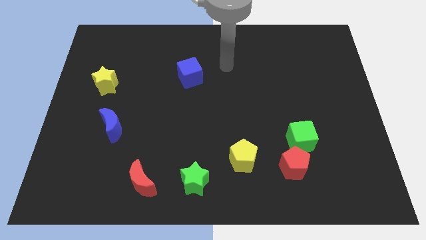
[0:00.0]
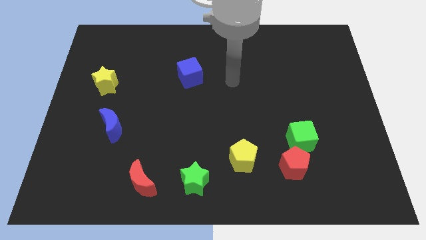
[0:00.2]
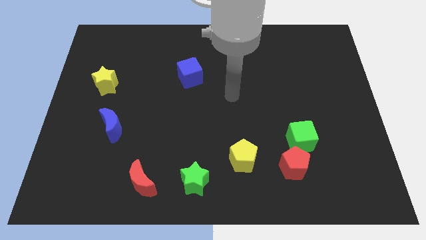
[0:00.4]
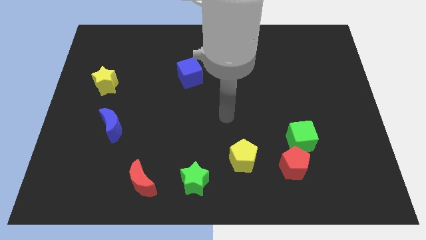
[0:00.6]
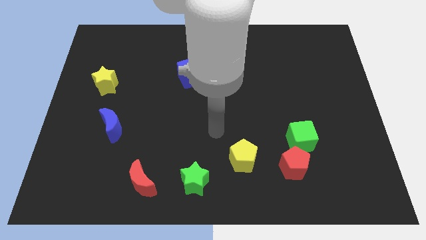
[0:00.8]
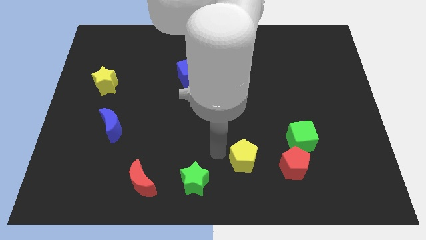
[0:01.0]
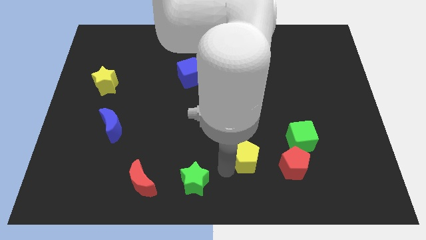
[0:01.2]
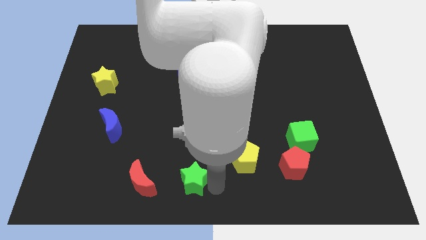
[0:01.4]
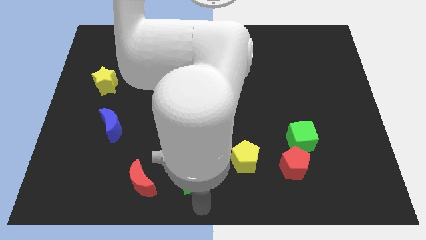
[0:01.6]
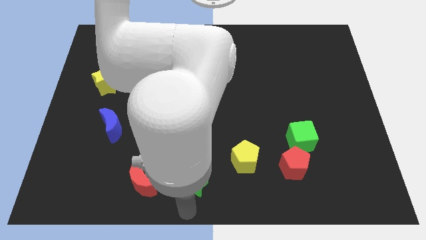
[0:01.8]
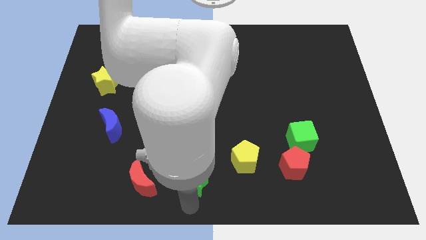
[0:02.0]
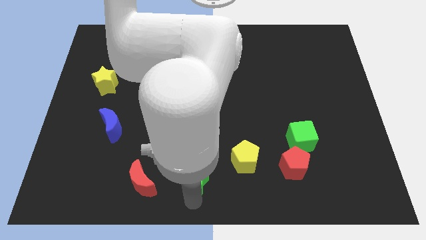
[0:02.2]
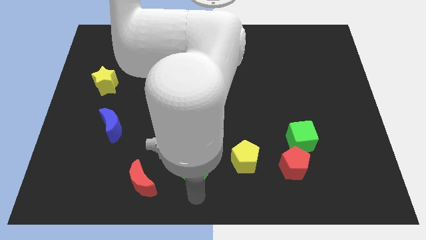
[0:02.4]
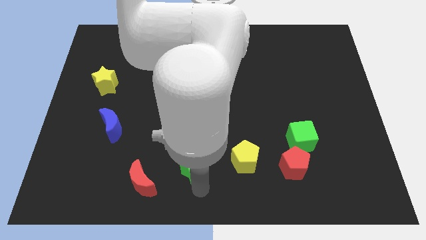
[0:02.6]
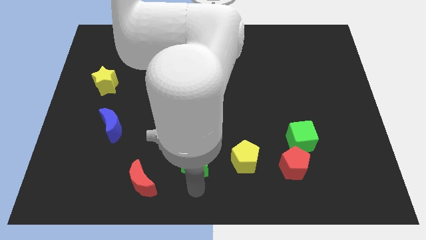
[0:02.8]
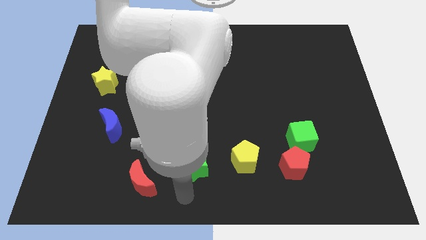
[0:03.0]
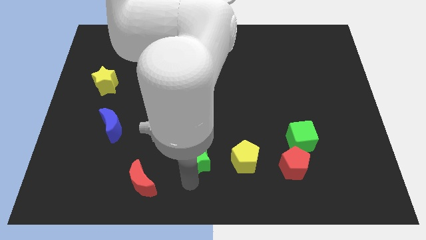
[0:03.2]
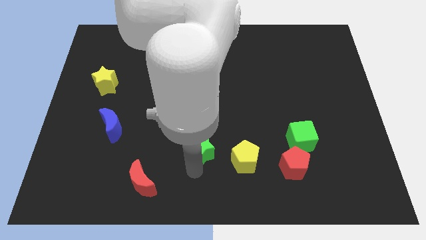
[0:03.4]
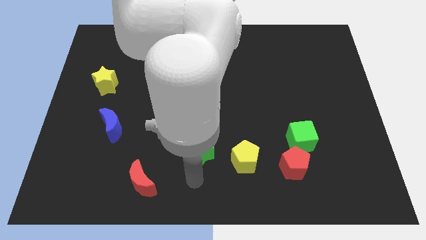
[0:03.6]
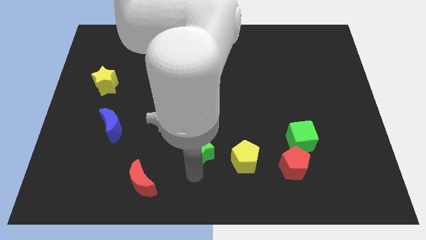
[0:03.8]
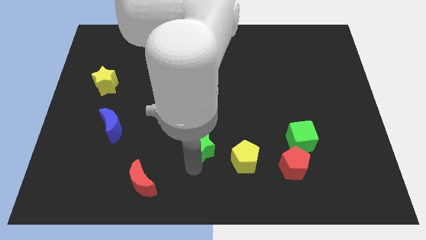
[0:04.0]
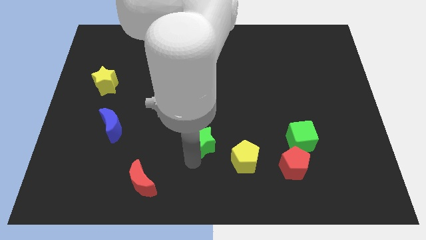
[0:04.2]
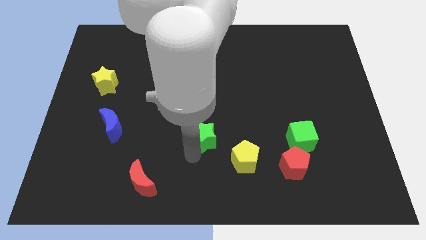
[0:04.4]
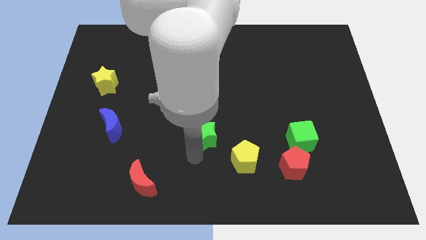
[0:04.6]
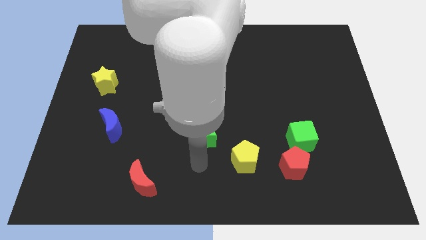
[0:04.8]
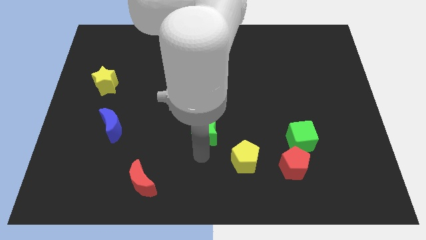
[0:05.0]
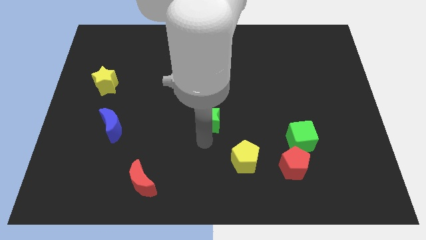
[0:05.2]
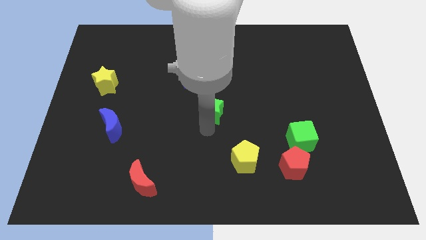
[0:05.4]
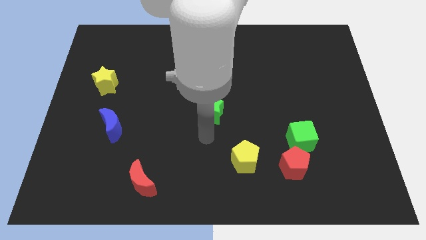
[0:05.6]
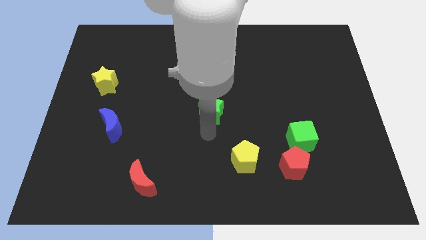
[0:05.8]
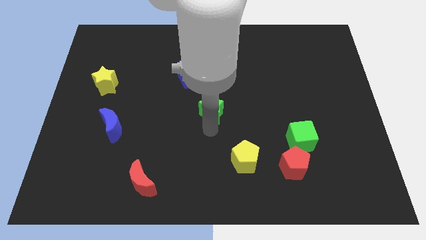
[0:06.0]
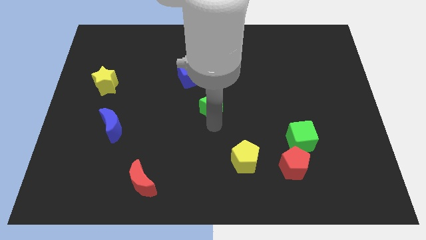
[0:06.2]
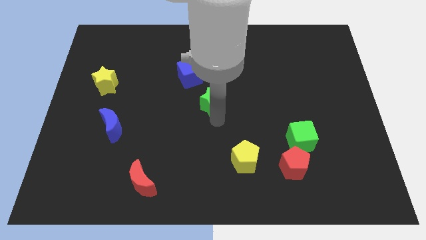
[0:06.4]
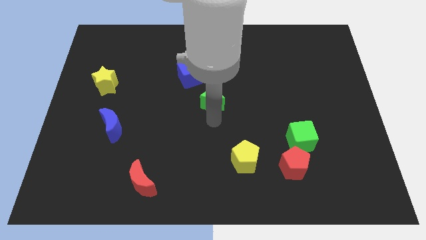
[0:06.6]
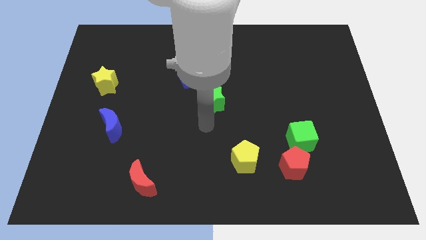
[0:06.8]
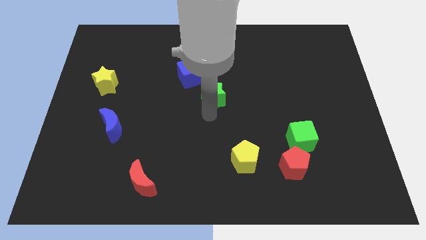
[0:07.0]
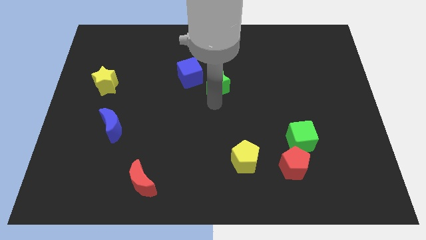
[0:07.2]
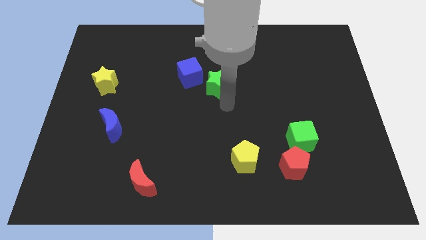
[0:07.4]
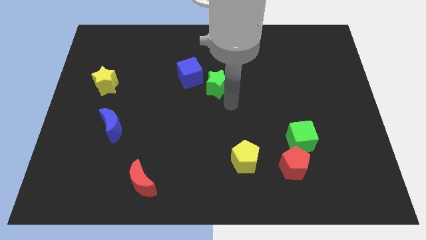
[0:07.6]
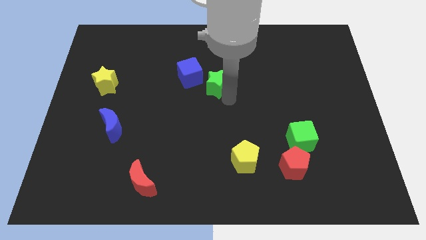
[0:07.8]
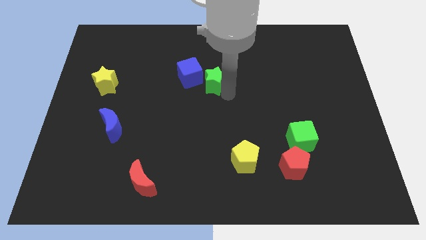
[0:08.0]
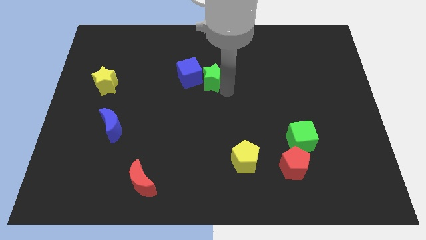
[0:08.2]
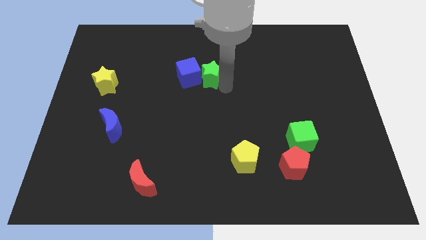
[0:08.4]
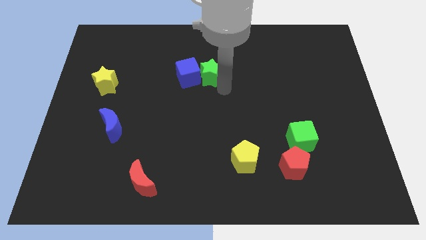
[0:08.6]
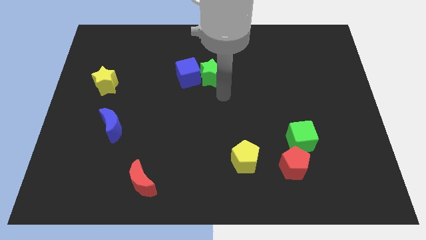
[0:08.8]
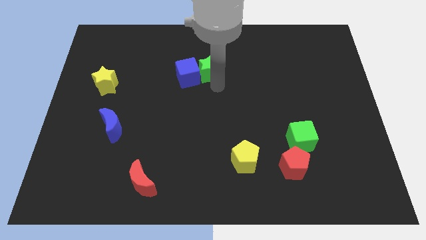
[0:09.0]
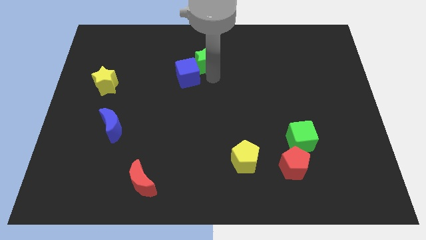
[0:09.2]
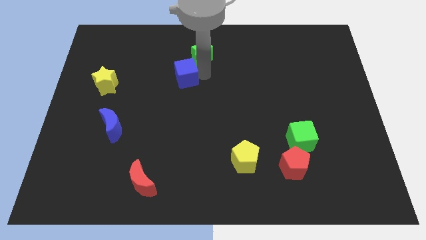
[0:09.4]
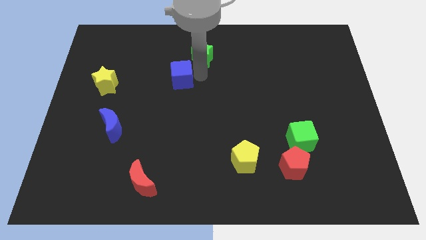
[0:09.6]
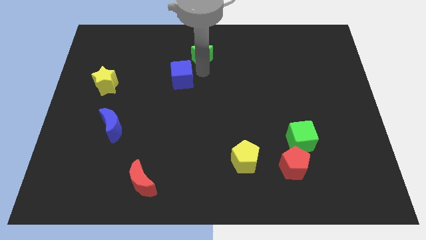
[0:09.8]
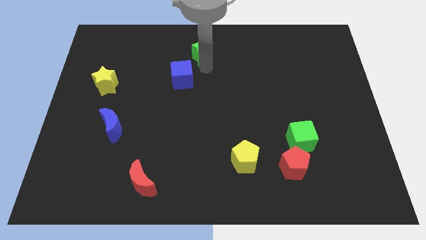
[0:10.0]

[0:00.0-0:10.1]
put the green star to the top side

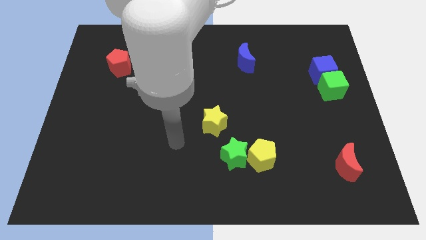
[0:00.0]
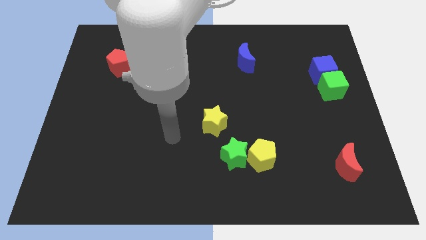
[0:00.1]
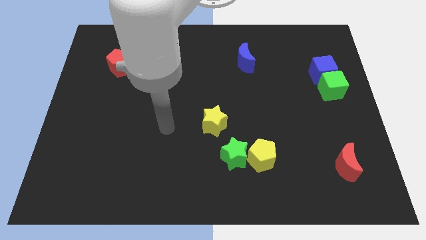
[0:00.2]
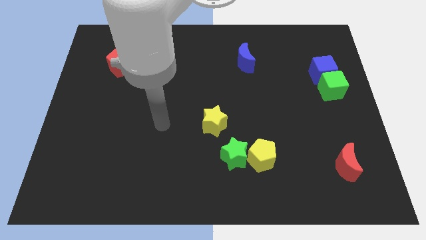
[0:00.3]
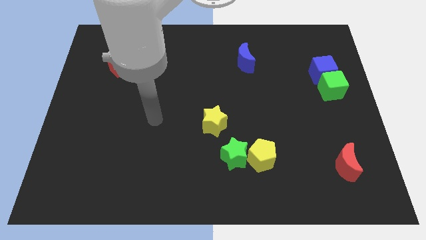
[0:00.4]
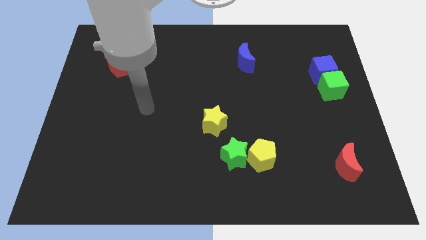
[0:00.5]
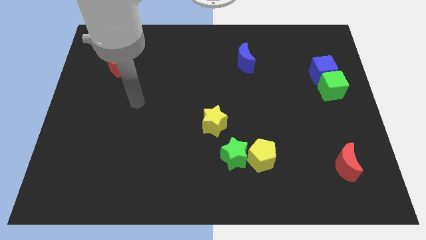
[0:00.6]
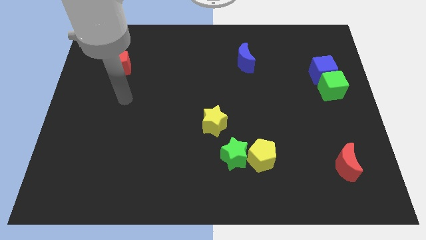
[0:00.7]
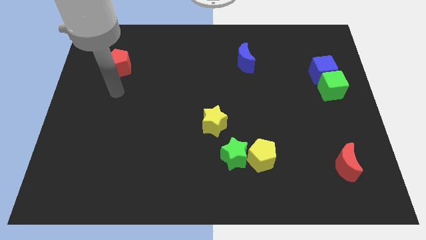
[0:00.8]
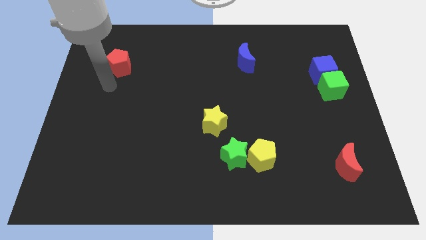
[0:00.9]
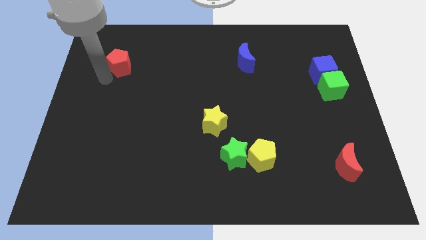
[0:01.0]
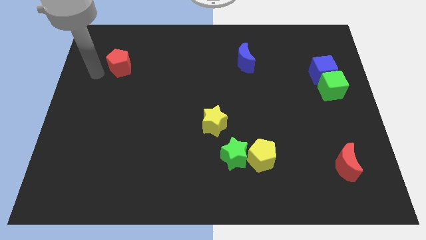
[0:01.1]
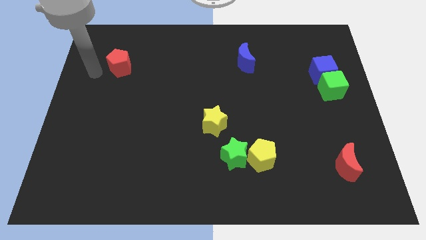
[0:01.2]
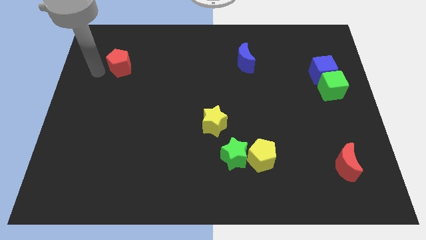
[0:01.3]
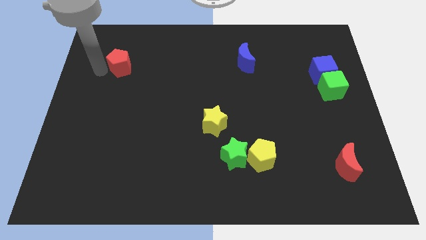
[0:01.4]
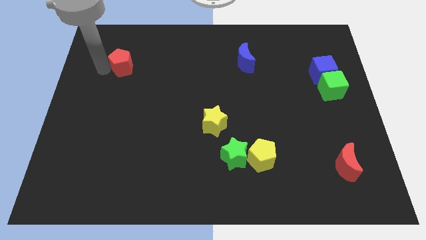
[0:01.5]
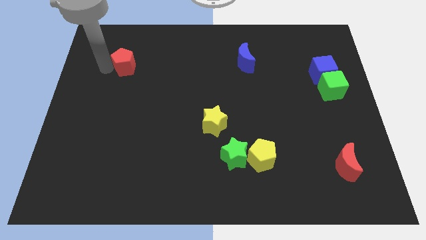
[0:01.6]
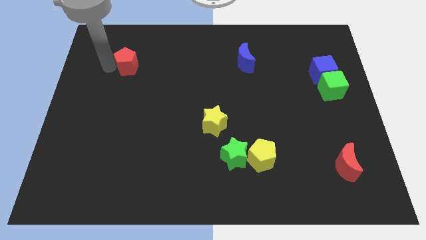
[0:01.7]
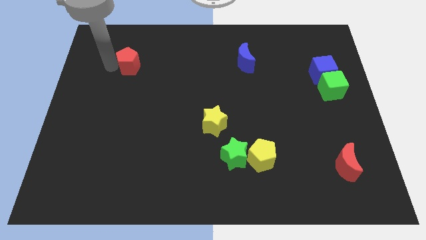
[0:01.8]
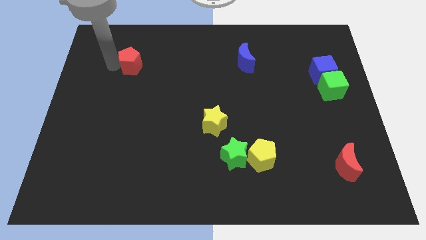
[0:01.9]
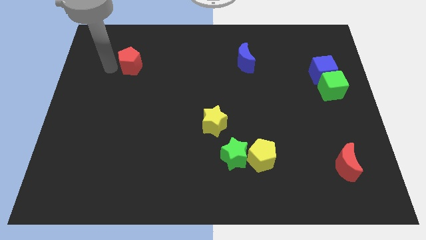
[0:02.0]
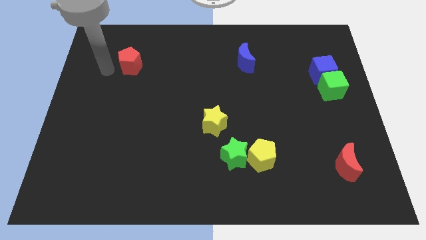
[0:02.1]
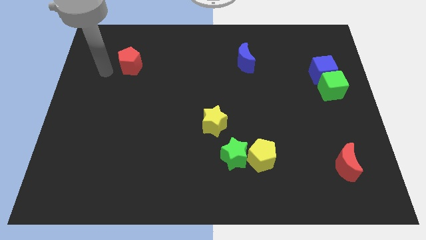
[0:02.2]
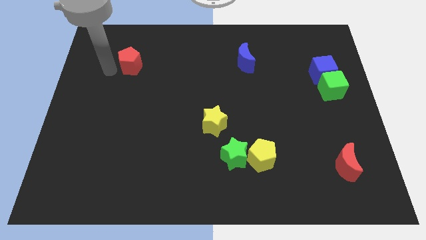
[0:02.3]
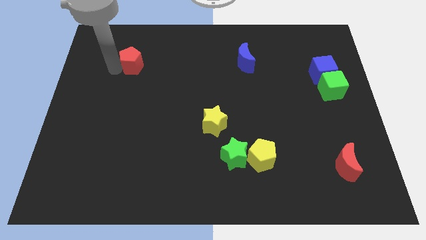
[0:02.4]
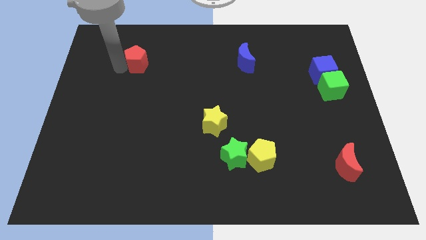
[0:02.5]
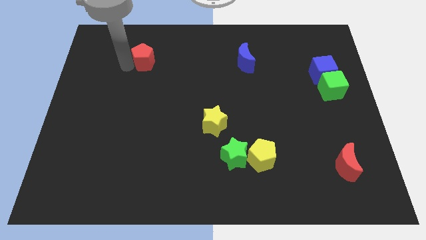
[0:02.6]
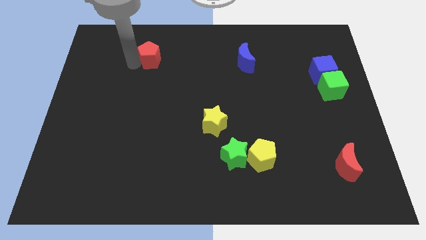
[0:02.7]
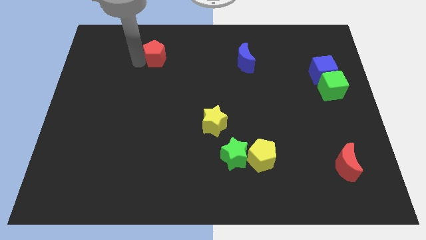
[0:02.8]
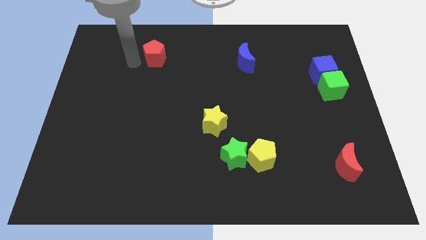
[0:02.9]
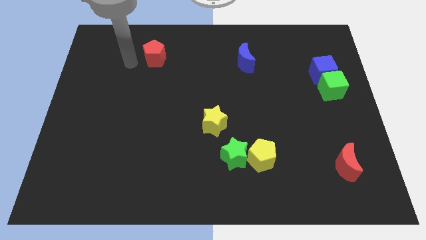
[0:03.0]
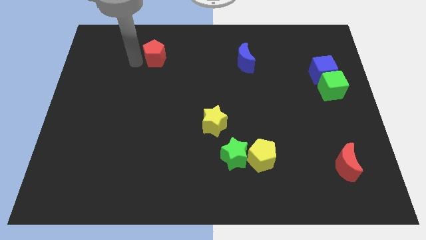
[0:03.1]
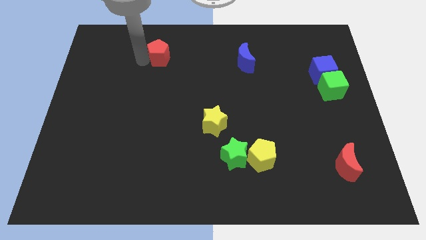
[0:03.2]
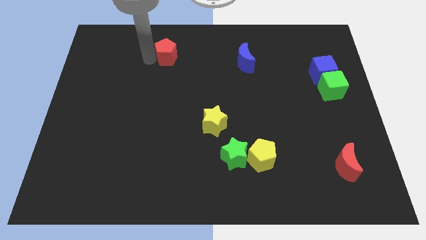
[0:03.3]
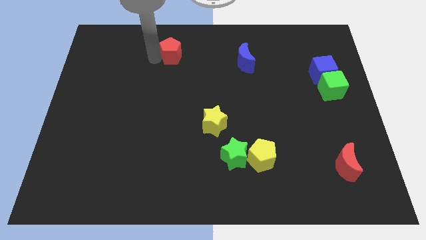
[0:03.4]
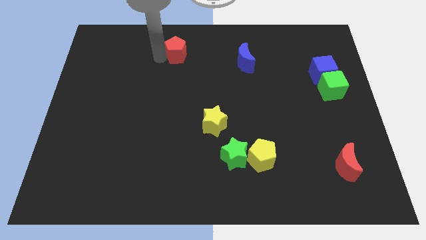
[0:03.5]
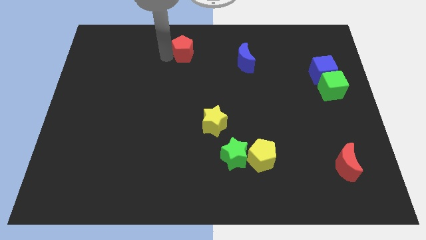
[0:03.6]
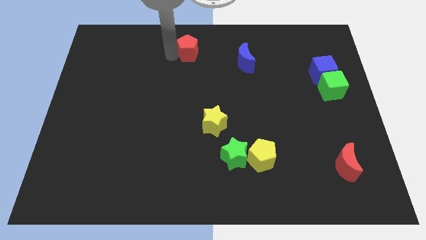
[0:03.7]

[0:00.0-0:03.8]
move the red pentagon to the towards your base
